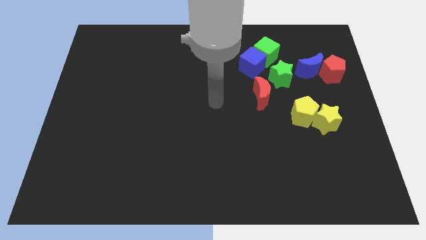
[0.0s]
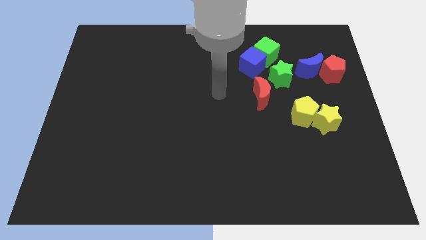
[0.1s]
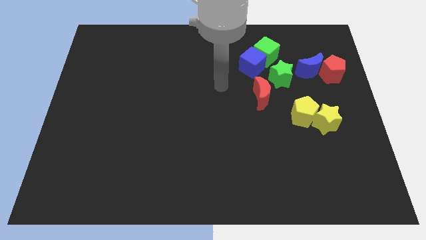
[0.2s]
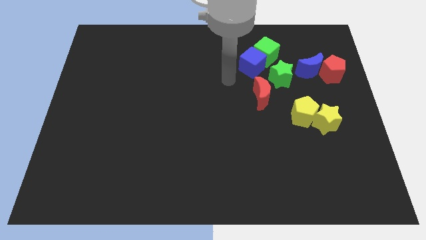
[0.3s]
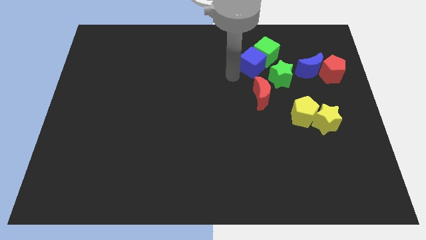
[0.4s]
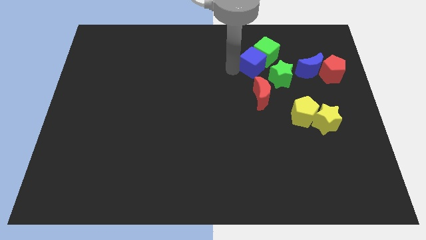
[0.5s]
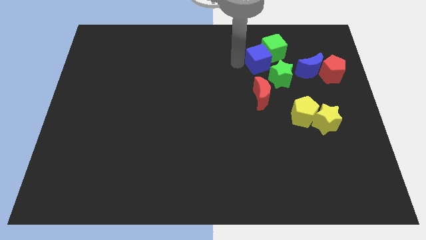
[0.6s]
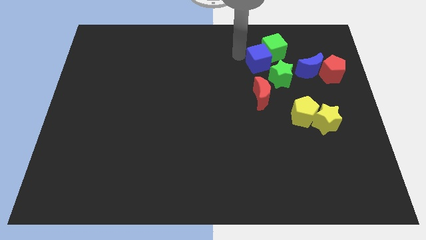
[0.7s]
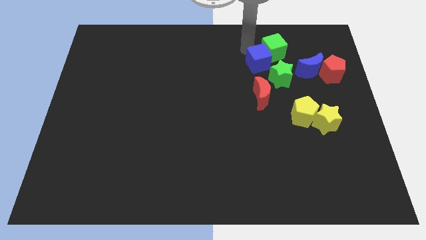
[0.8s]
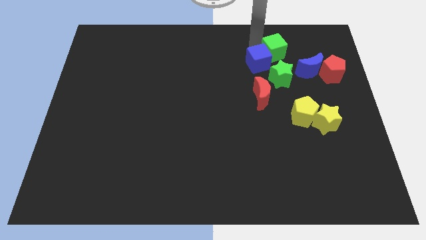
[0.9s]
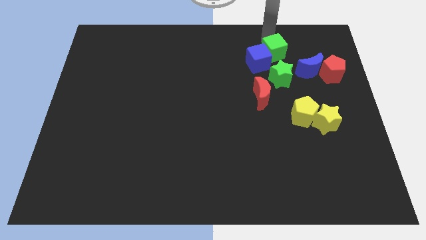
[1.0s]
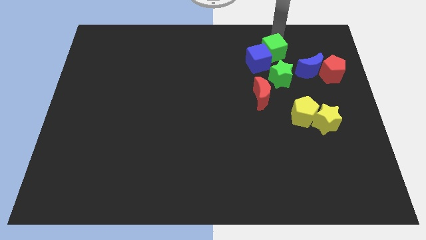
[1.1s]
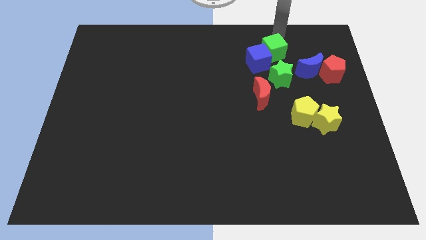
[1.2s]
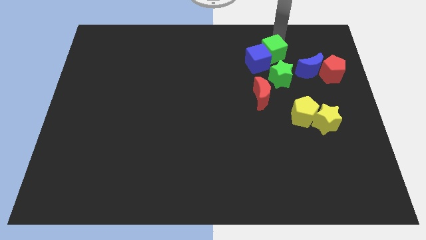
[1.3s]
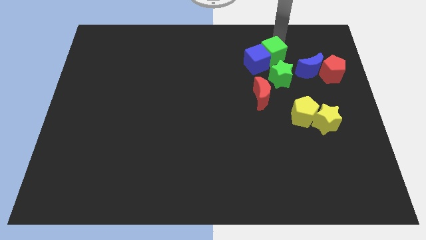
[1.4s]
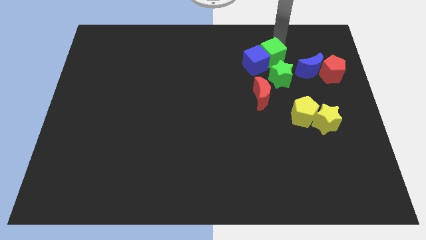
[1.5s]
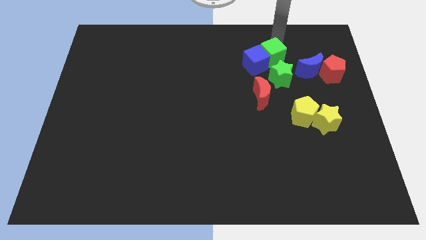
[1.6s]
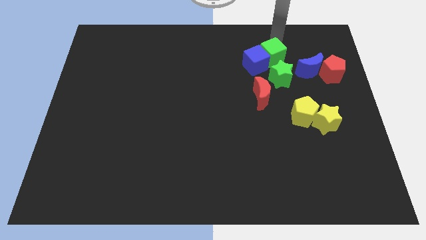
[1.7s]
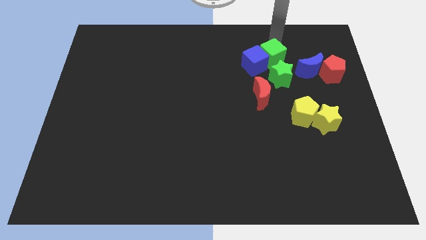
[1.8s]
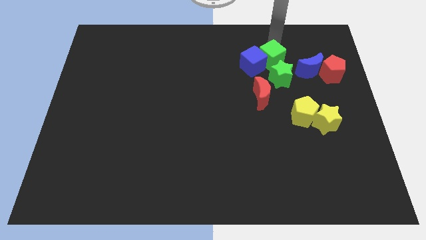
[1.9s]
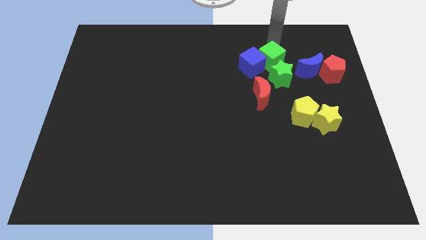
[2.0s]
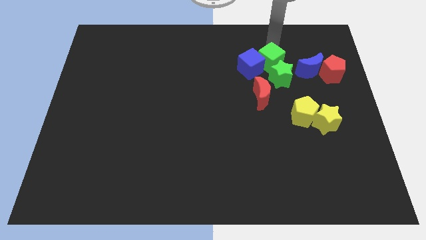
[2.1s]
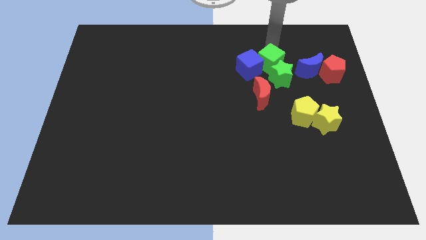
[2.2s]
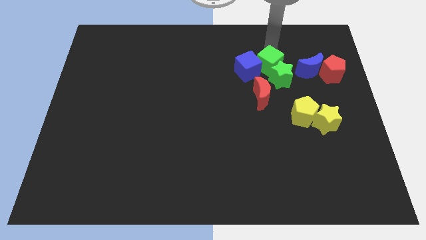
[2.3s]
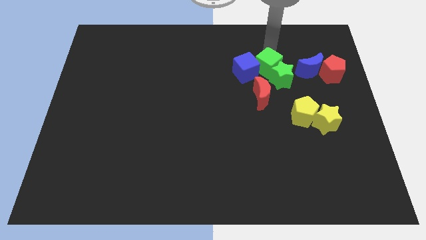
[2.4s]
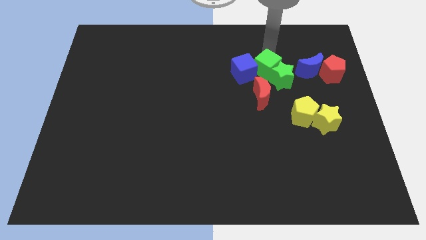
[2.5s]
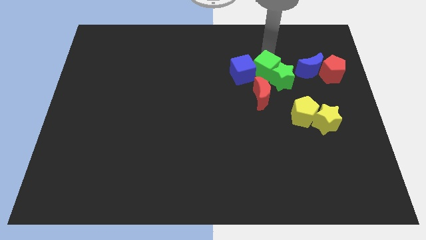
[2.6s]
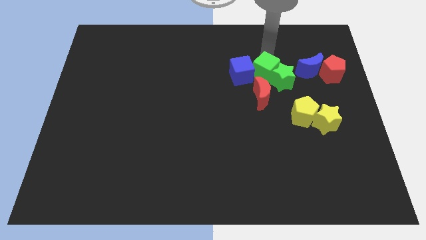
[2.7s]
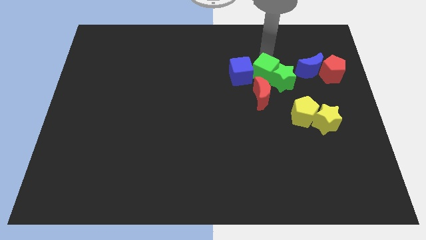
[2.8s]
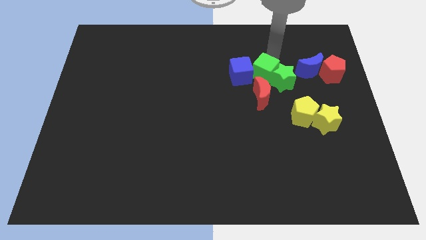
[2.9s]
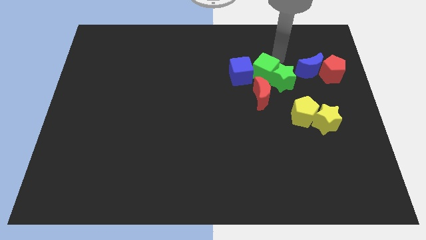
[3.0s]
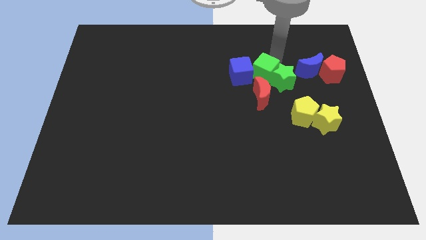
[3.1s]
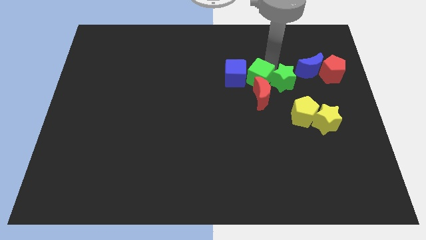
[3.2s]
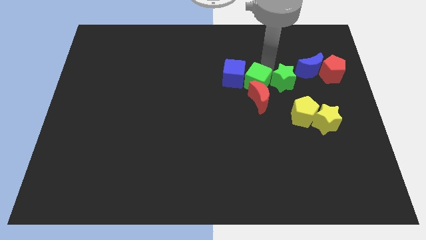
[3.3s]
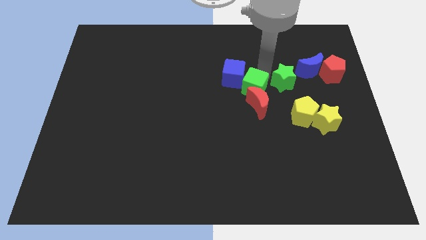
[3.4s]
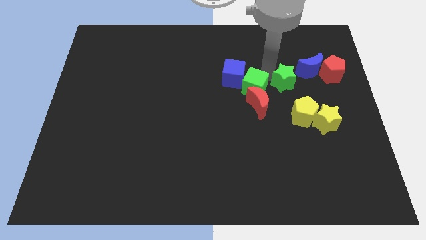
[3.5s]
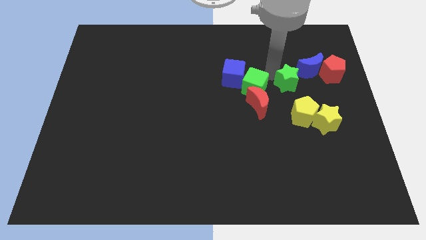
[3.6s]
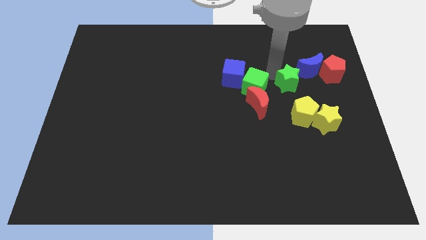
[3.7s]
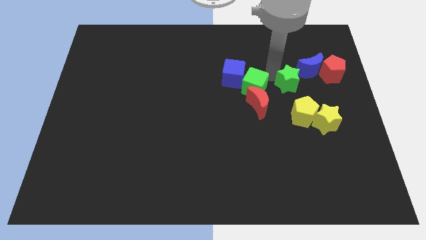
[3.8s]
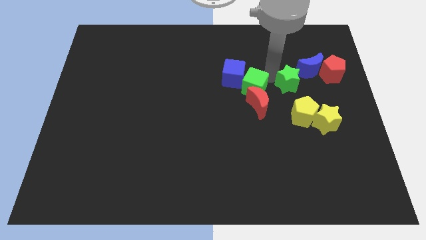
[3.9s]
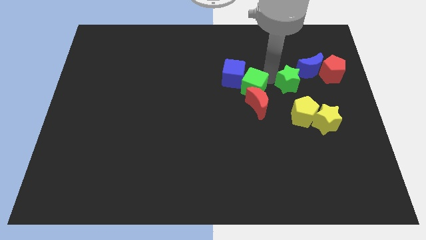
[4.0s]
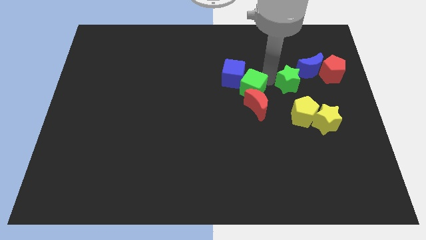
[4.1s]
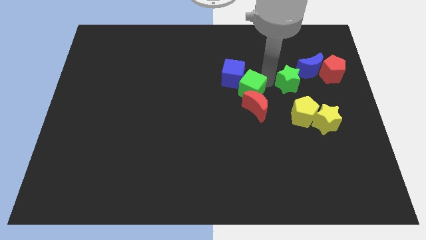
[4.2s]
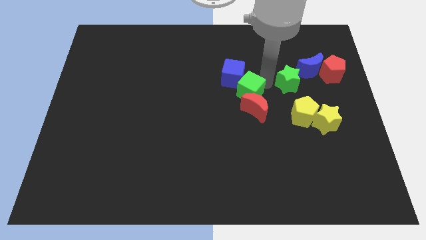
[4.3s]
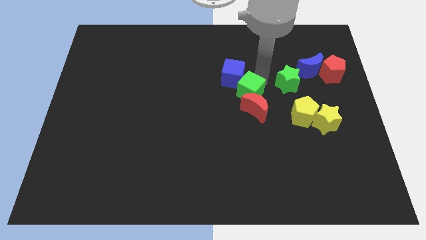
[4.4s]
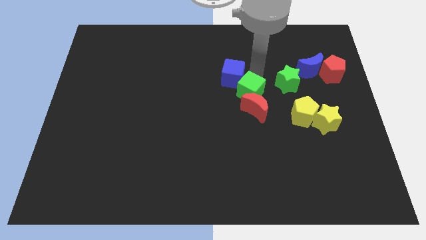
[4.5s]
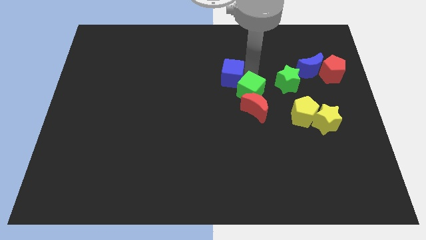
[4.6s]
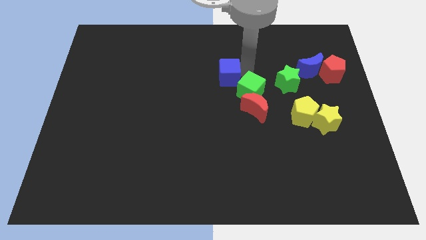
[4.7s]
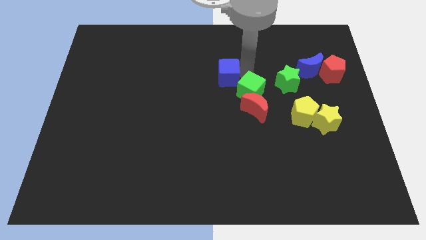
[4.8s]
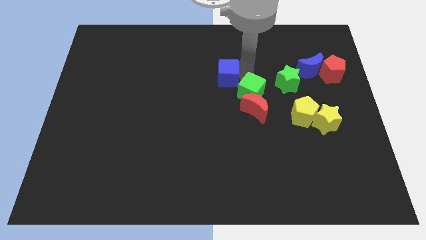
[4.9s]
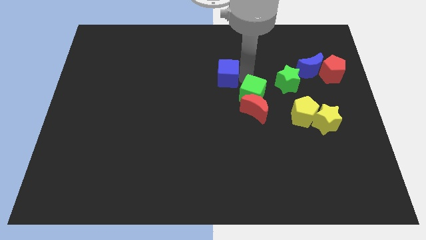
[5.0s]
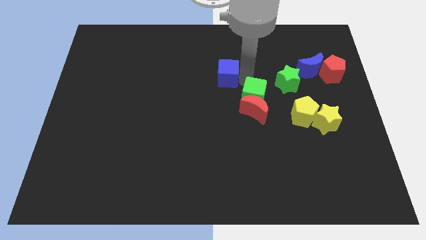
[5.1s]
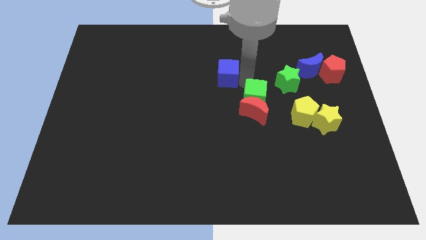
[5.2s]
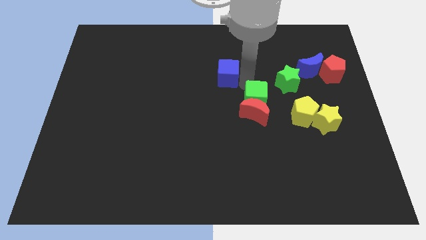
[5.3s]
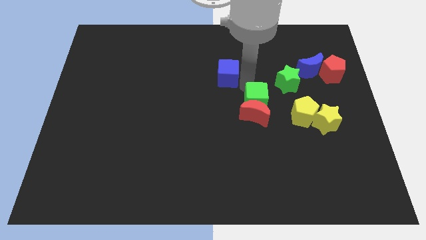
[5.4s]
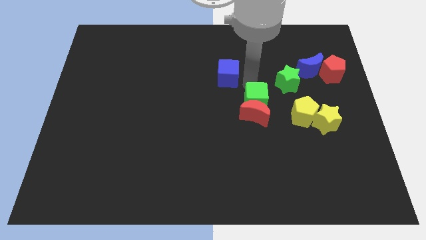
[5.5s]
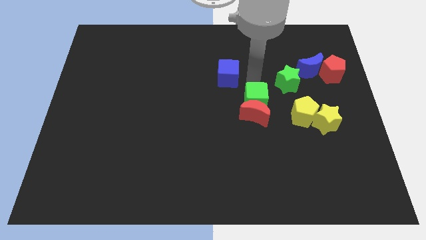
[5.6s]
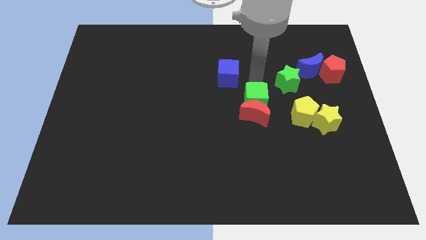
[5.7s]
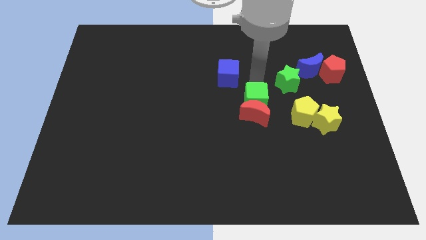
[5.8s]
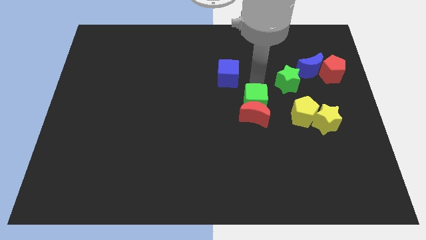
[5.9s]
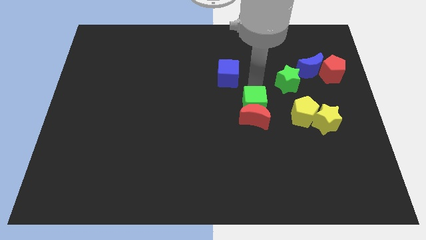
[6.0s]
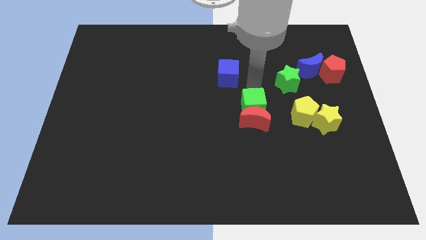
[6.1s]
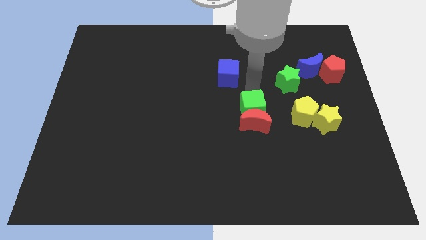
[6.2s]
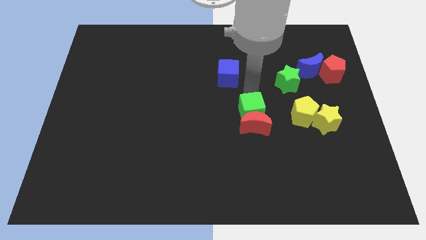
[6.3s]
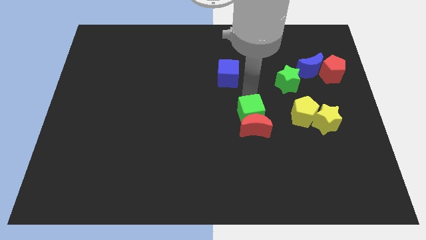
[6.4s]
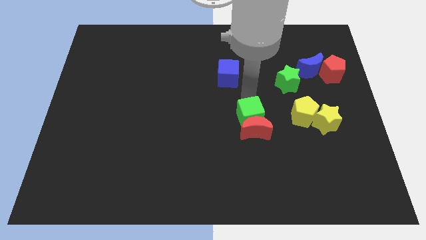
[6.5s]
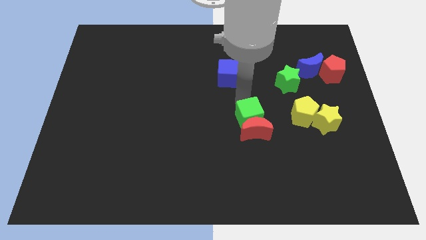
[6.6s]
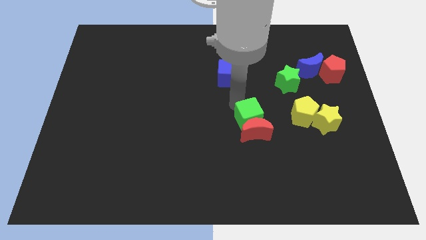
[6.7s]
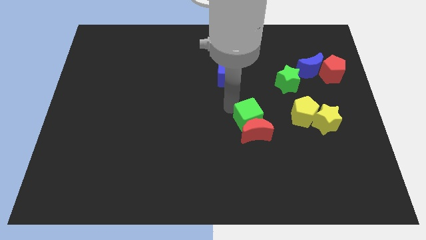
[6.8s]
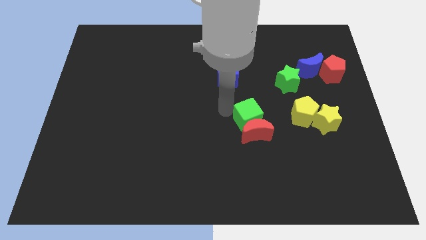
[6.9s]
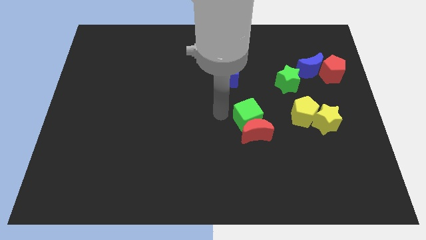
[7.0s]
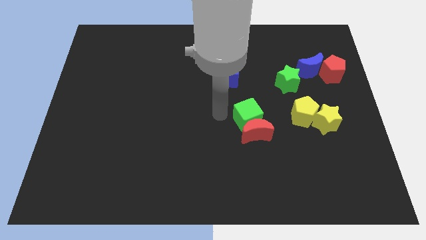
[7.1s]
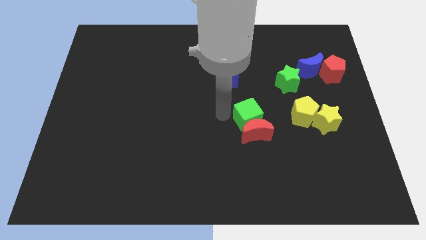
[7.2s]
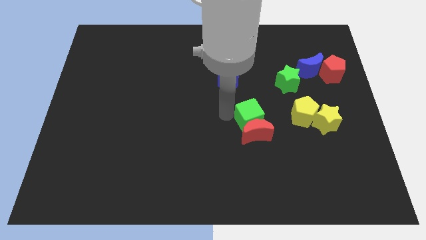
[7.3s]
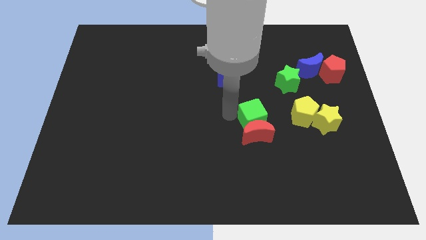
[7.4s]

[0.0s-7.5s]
move the green cube down

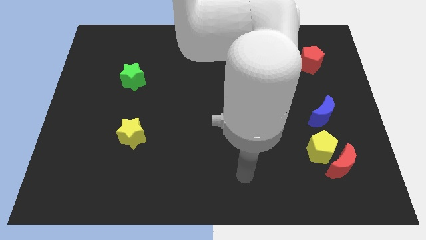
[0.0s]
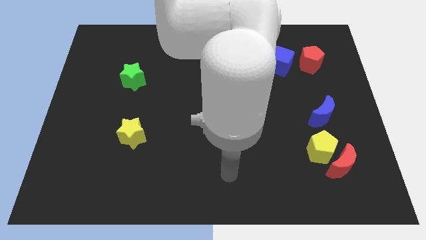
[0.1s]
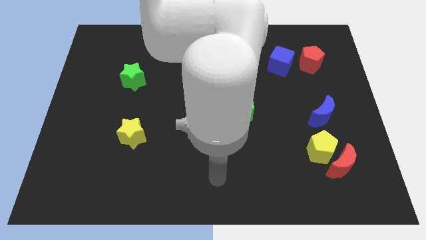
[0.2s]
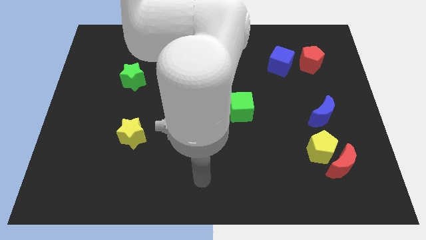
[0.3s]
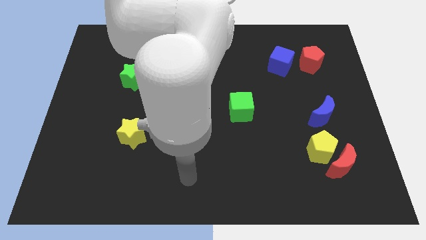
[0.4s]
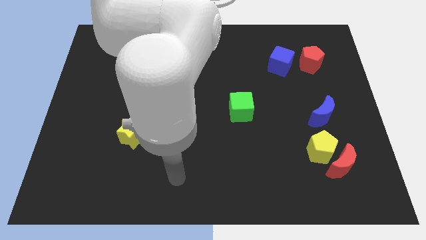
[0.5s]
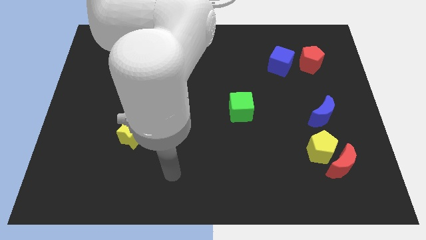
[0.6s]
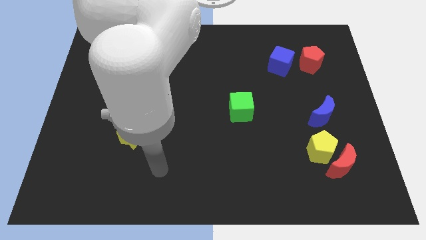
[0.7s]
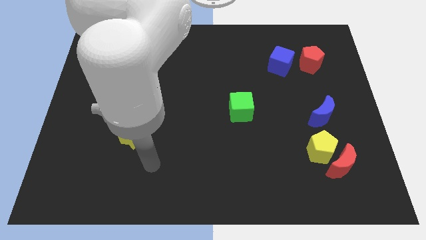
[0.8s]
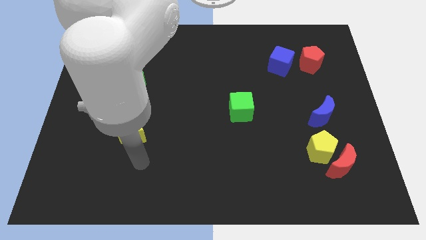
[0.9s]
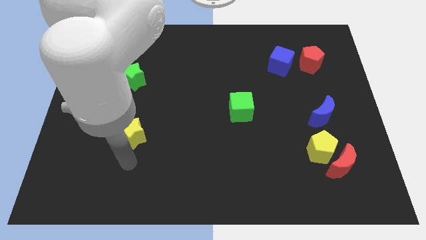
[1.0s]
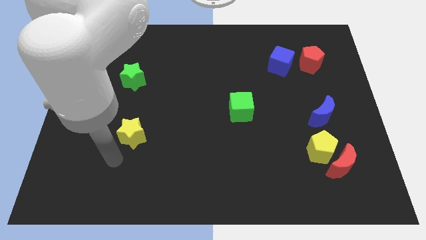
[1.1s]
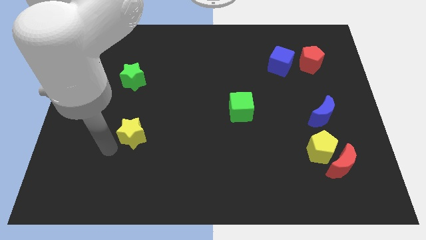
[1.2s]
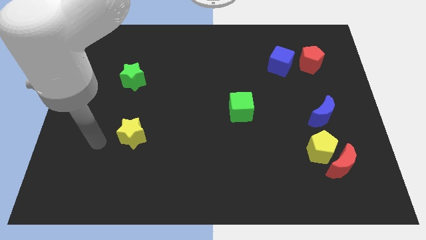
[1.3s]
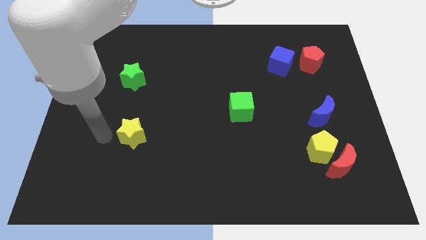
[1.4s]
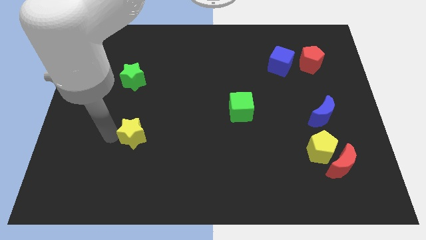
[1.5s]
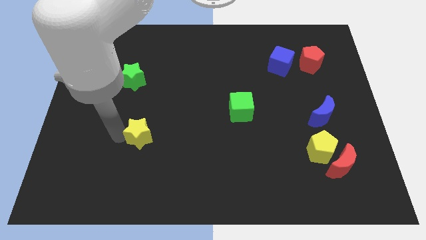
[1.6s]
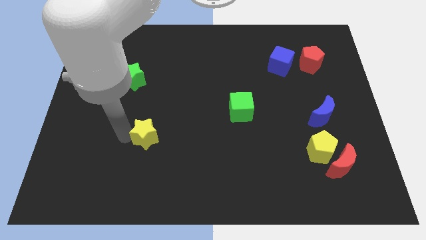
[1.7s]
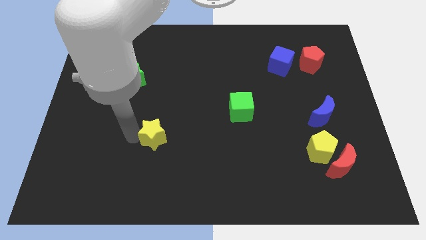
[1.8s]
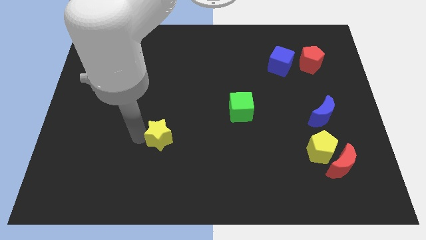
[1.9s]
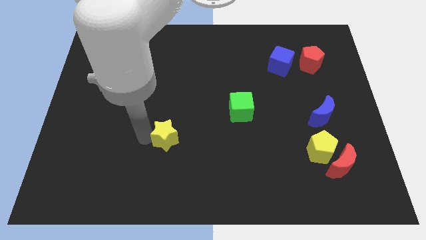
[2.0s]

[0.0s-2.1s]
slide the yellow star right a little bit
